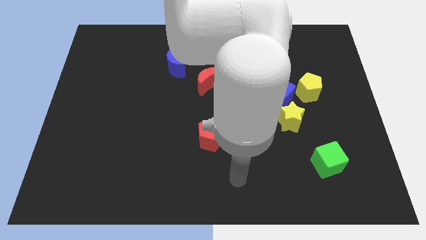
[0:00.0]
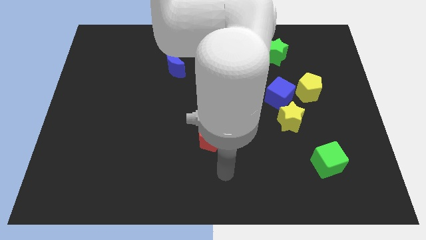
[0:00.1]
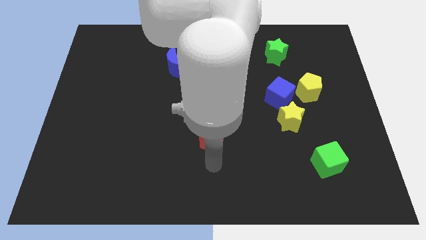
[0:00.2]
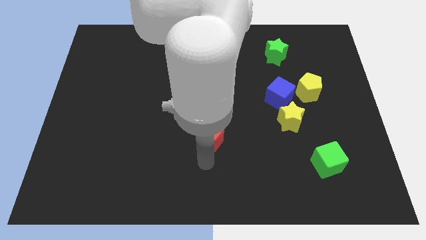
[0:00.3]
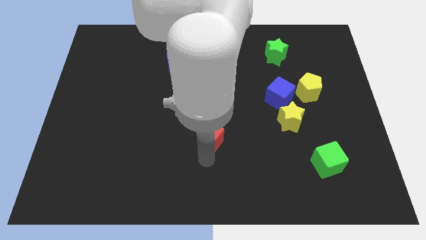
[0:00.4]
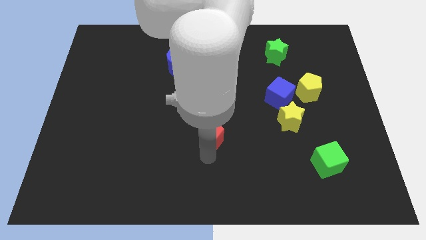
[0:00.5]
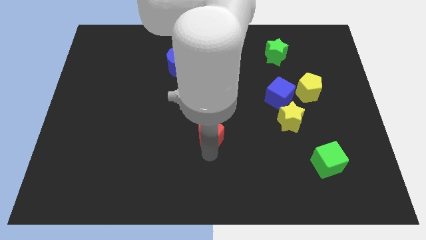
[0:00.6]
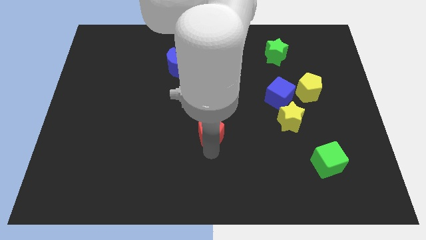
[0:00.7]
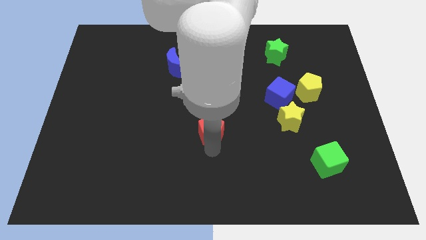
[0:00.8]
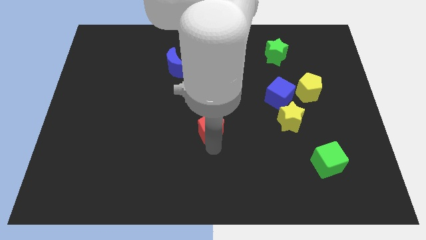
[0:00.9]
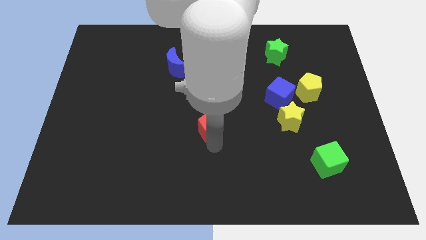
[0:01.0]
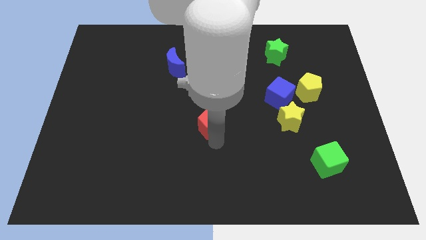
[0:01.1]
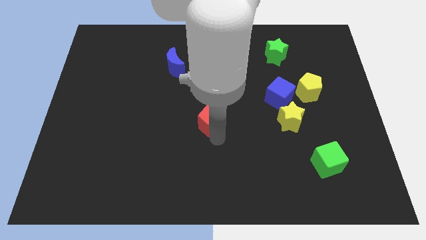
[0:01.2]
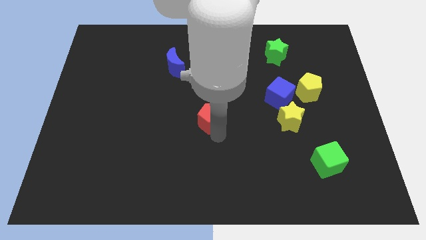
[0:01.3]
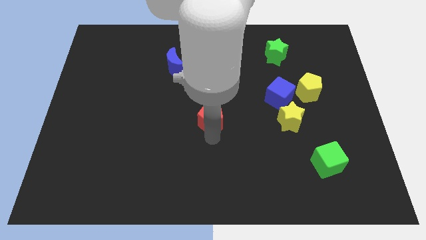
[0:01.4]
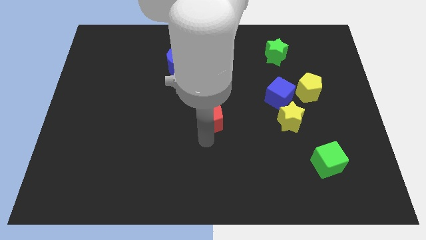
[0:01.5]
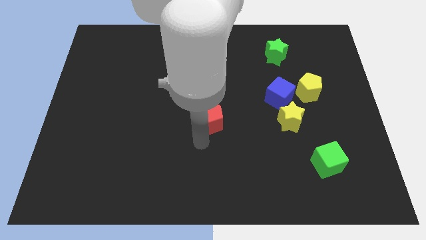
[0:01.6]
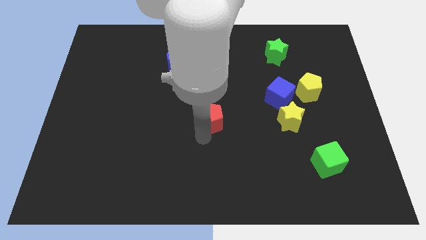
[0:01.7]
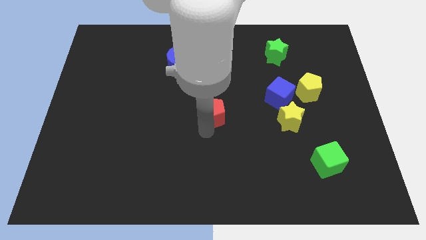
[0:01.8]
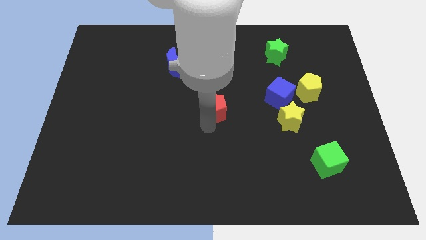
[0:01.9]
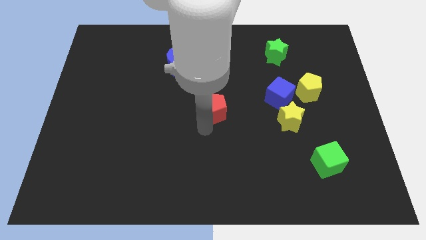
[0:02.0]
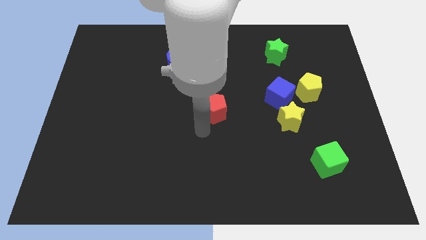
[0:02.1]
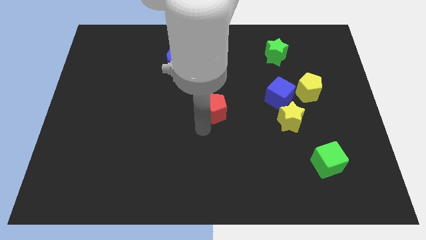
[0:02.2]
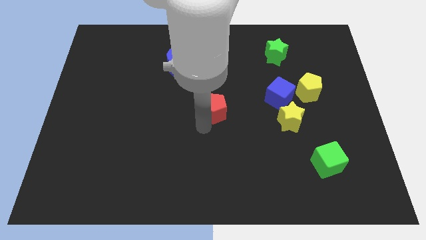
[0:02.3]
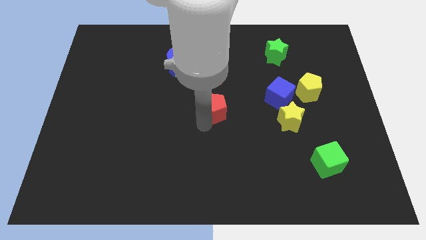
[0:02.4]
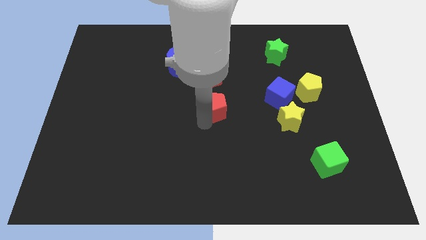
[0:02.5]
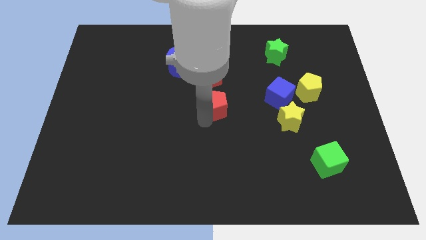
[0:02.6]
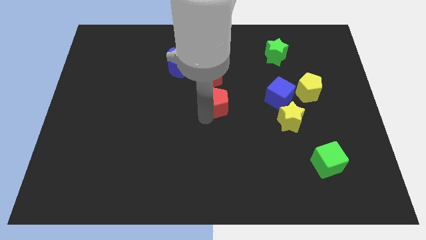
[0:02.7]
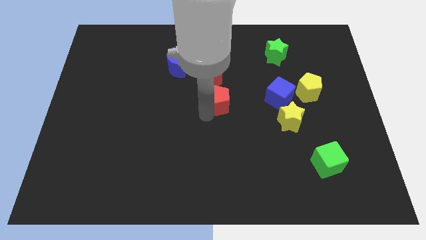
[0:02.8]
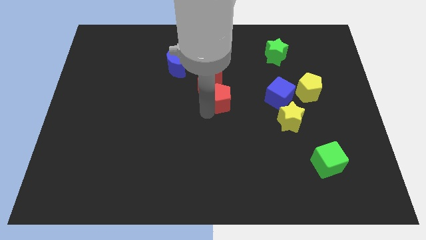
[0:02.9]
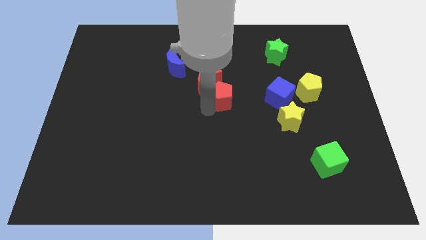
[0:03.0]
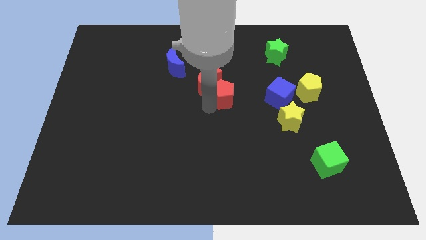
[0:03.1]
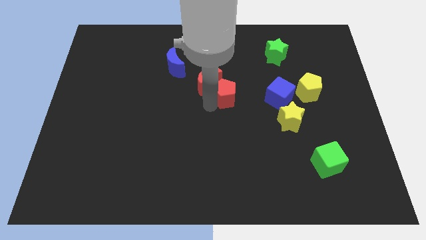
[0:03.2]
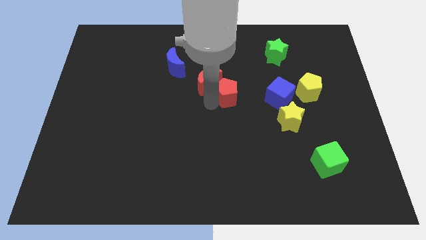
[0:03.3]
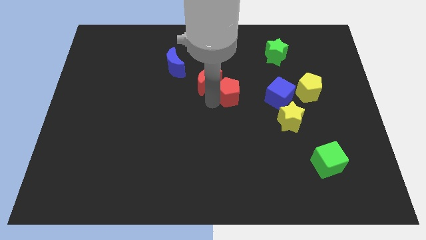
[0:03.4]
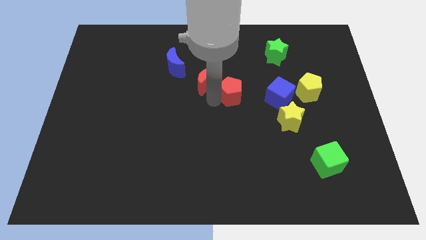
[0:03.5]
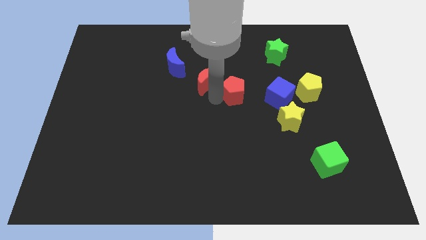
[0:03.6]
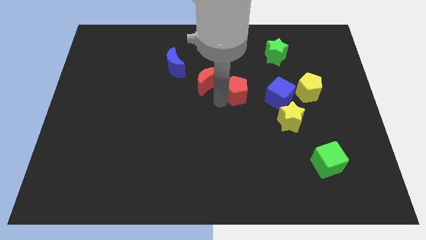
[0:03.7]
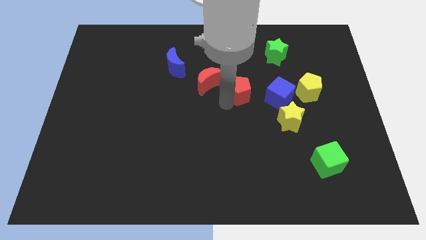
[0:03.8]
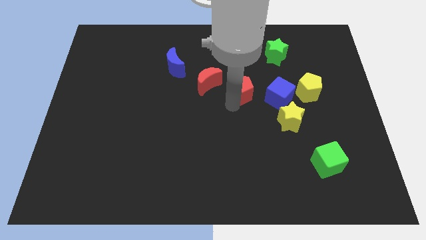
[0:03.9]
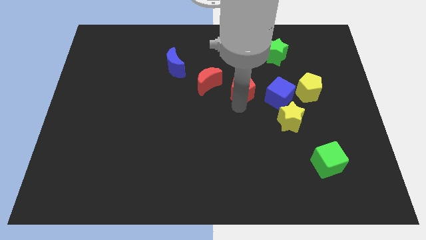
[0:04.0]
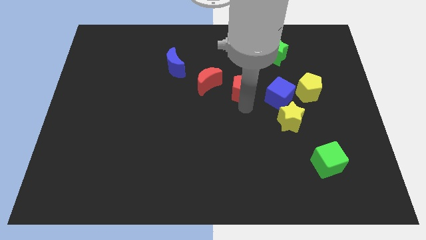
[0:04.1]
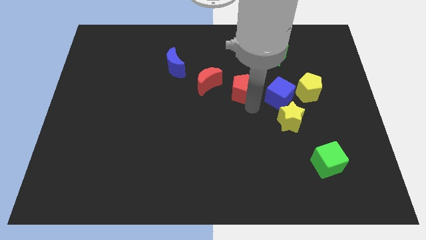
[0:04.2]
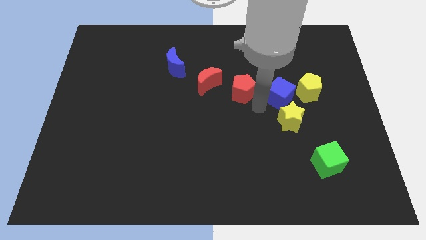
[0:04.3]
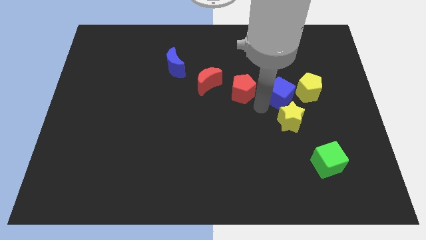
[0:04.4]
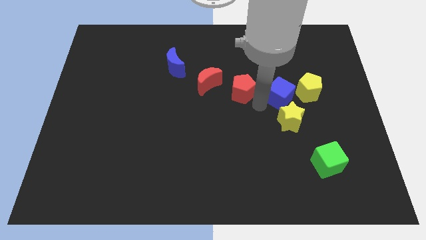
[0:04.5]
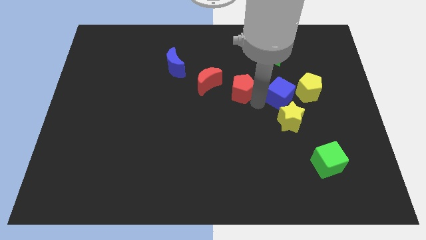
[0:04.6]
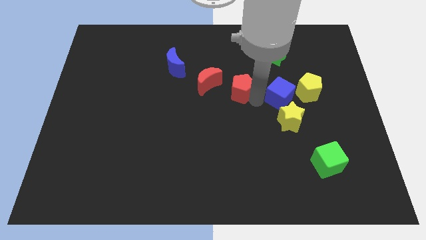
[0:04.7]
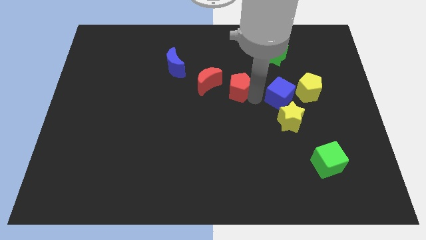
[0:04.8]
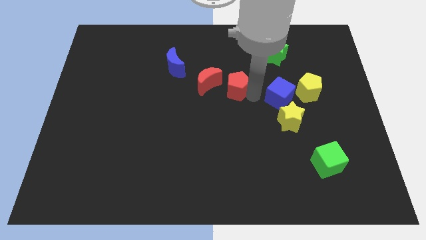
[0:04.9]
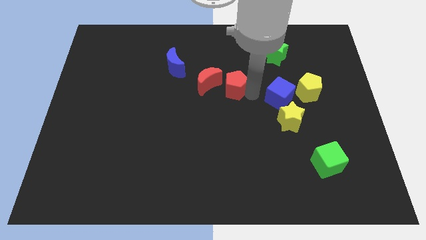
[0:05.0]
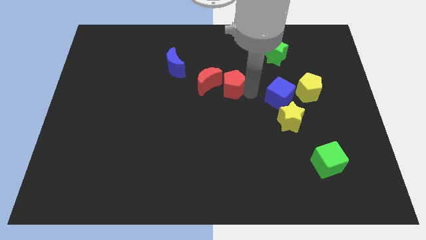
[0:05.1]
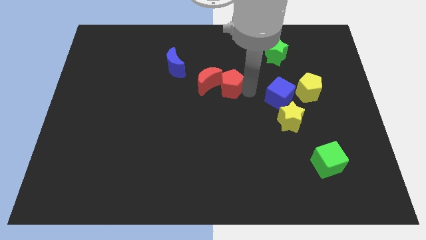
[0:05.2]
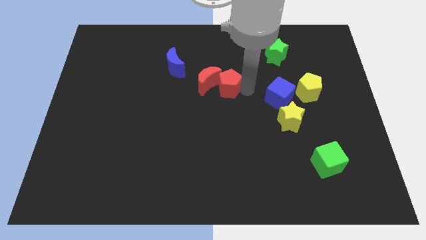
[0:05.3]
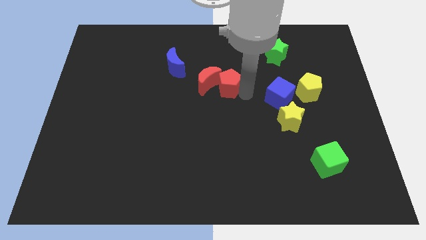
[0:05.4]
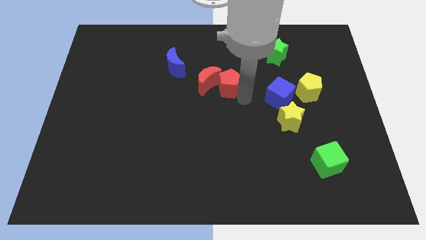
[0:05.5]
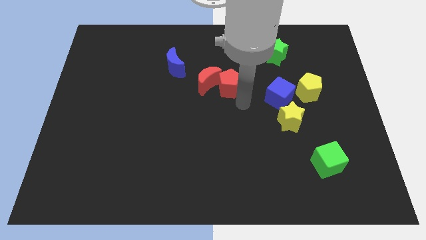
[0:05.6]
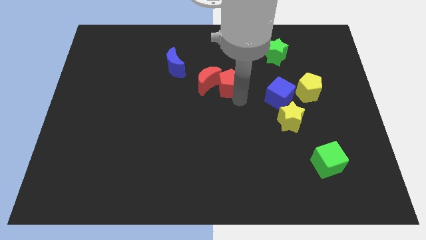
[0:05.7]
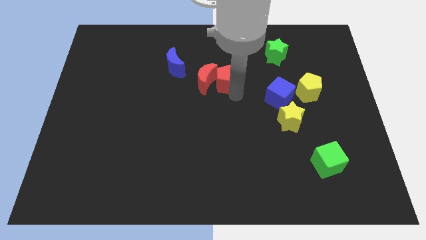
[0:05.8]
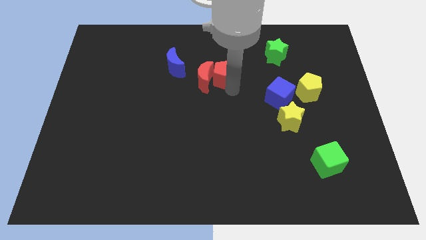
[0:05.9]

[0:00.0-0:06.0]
push the red pentagon just right of the blue moon

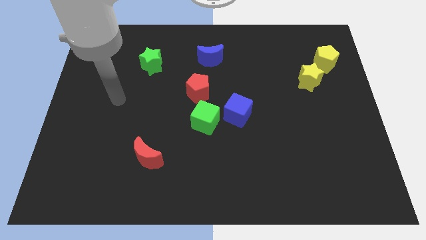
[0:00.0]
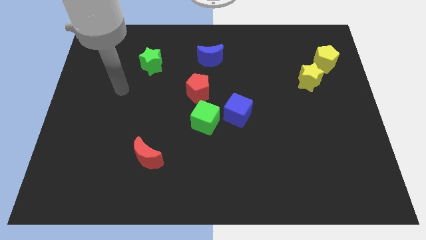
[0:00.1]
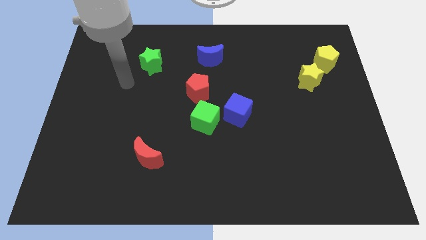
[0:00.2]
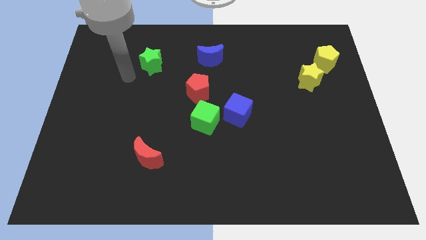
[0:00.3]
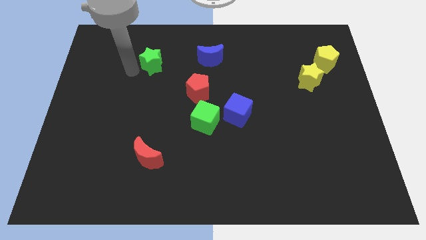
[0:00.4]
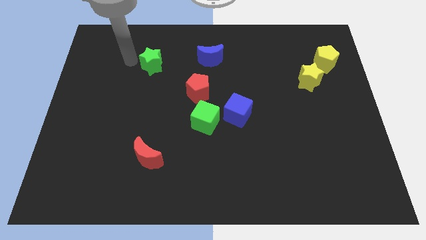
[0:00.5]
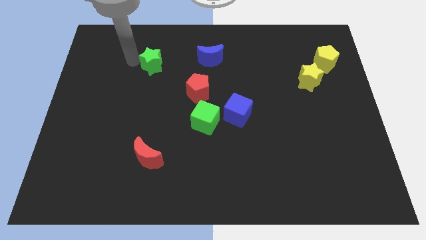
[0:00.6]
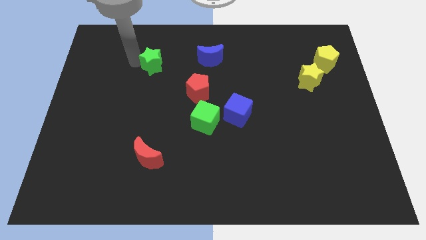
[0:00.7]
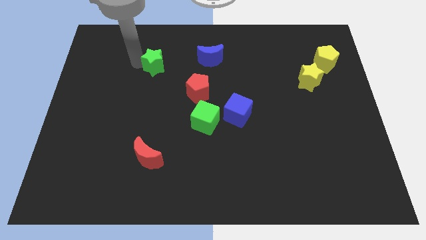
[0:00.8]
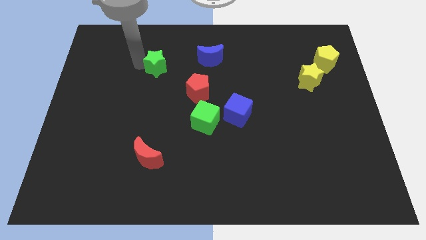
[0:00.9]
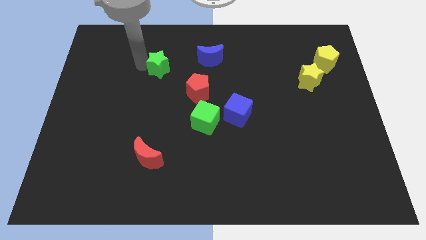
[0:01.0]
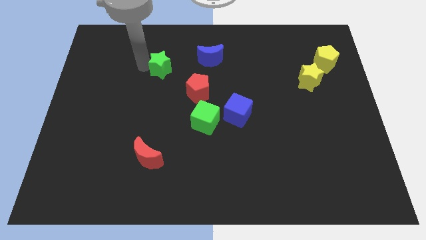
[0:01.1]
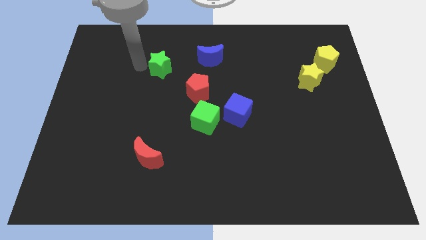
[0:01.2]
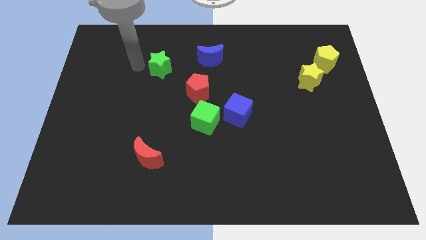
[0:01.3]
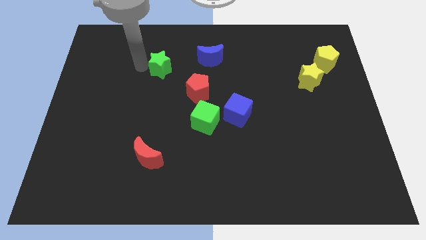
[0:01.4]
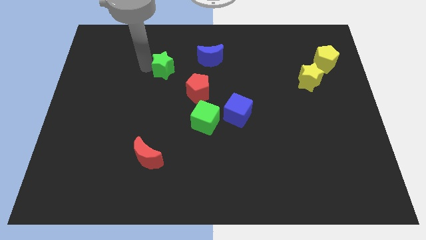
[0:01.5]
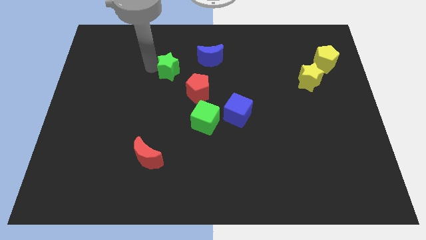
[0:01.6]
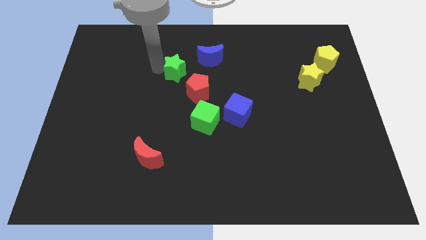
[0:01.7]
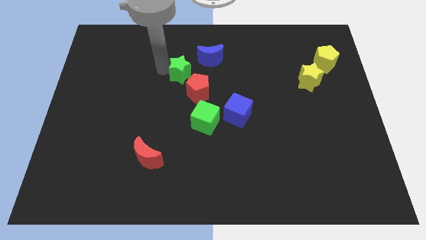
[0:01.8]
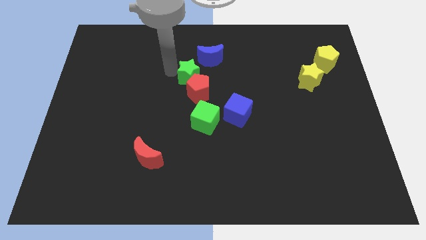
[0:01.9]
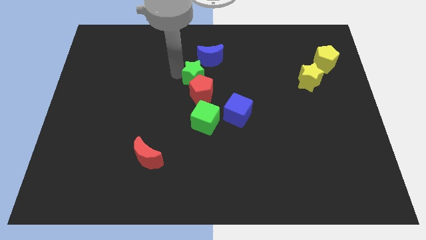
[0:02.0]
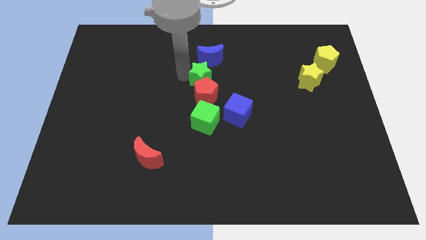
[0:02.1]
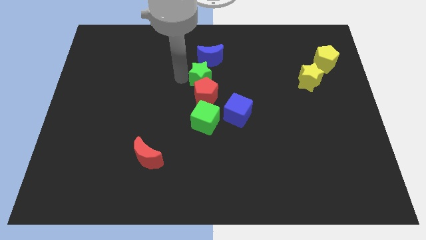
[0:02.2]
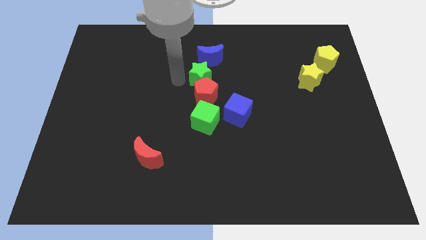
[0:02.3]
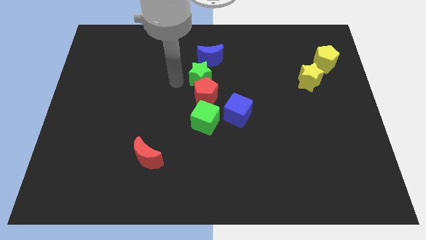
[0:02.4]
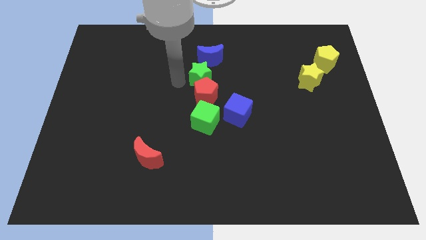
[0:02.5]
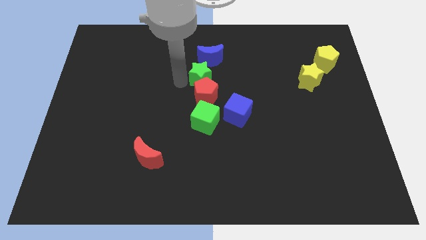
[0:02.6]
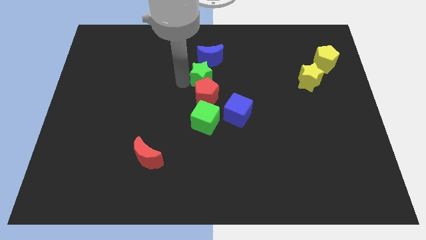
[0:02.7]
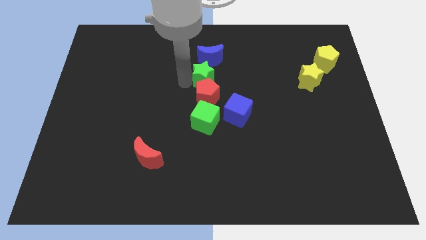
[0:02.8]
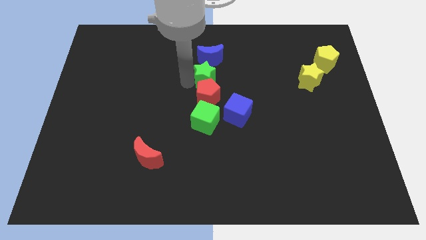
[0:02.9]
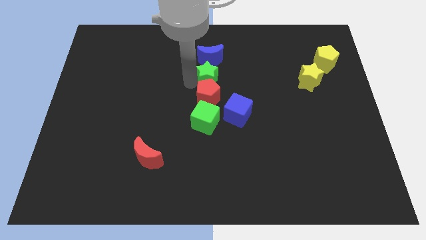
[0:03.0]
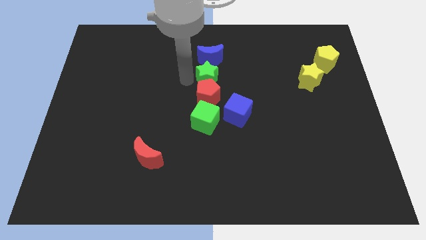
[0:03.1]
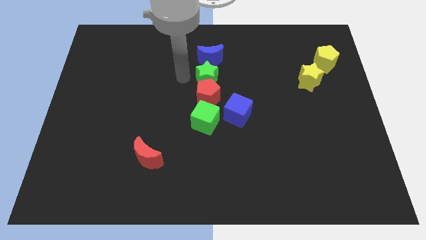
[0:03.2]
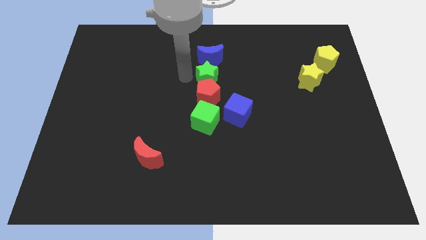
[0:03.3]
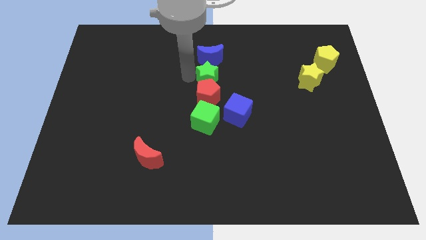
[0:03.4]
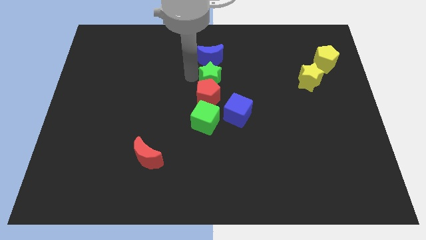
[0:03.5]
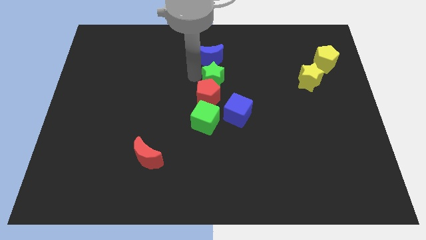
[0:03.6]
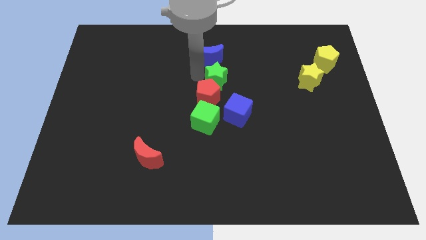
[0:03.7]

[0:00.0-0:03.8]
put the green star to the top of the blue cube
